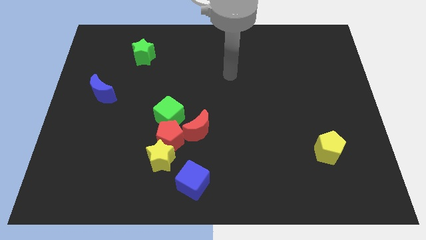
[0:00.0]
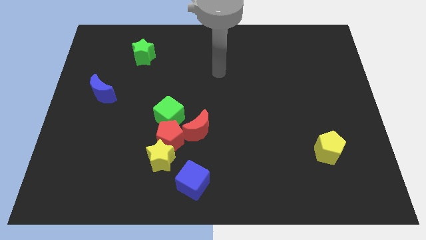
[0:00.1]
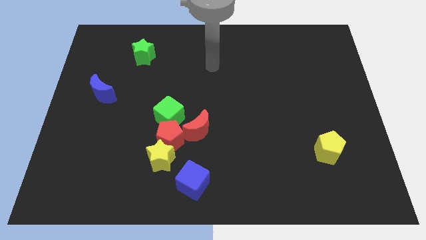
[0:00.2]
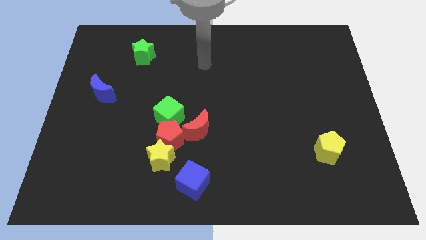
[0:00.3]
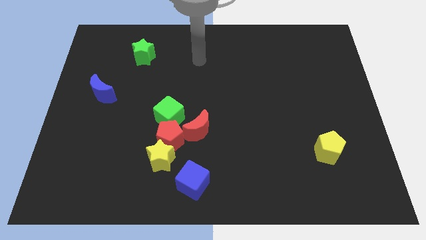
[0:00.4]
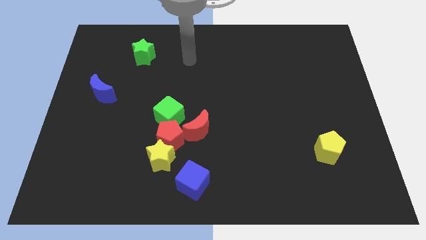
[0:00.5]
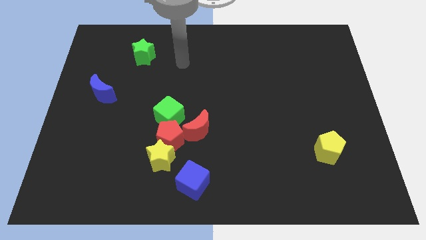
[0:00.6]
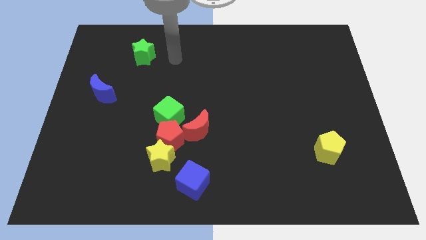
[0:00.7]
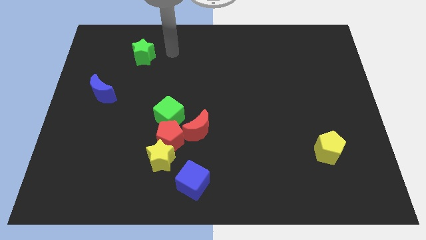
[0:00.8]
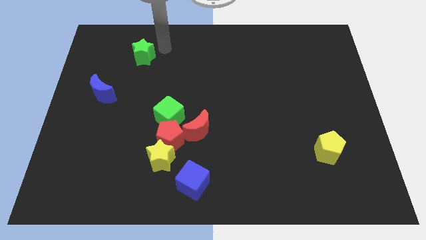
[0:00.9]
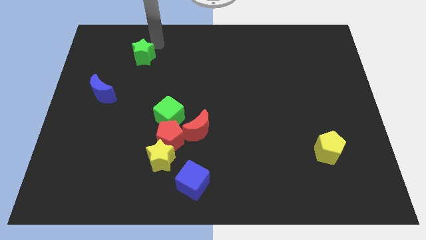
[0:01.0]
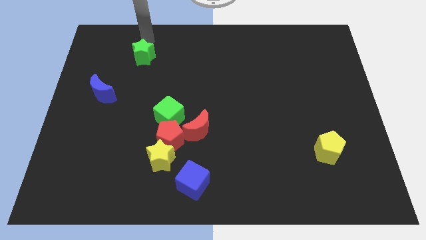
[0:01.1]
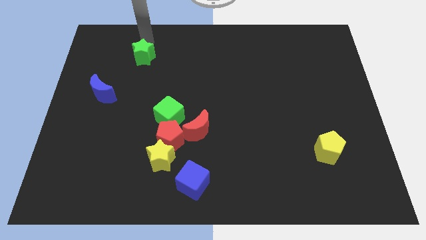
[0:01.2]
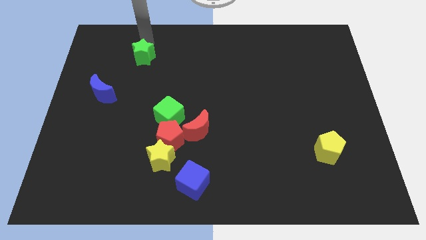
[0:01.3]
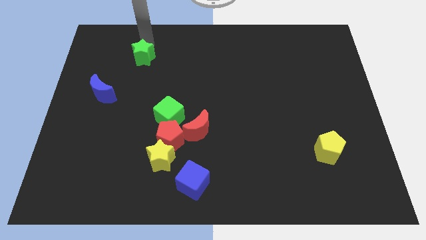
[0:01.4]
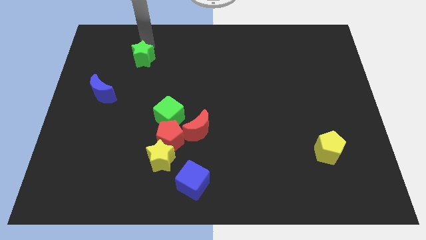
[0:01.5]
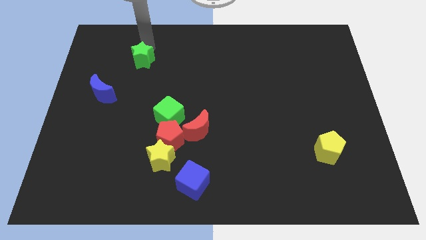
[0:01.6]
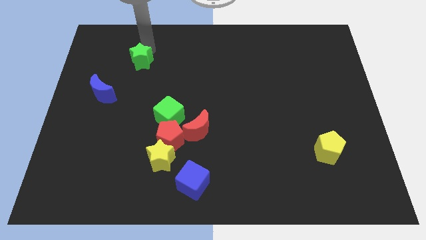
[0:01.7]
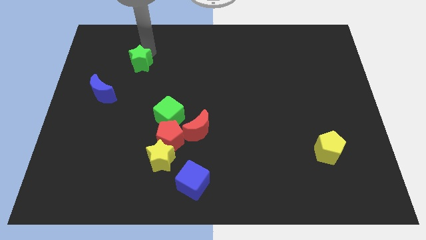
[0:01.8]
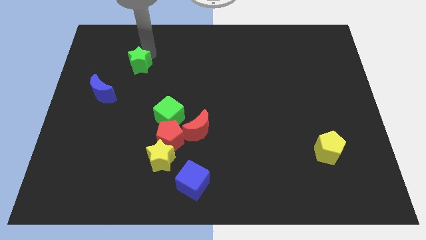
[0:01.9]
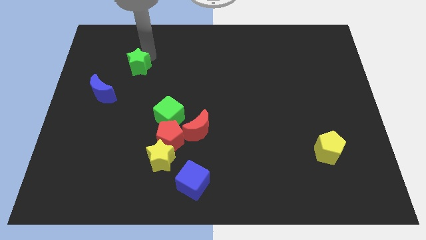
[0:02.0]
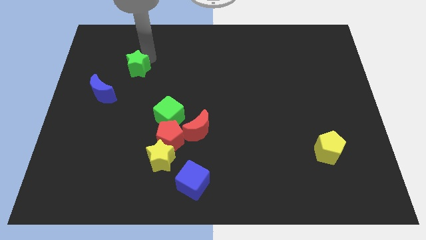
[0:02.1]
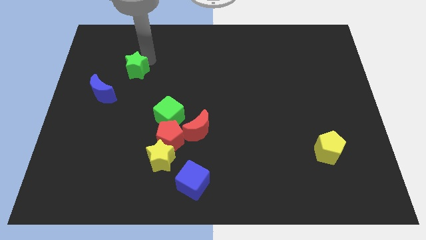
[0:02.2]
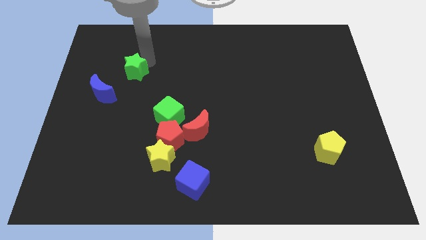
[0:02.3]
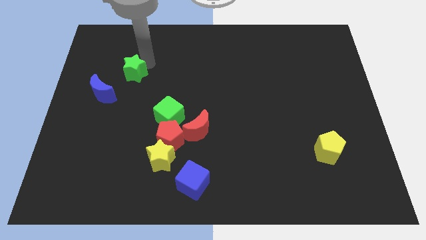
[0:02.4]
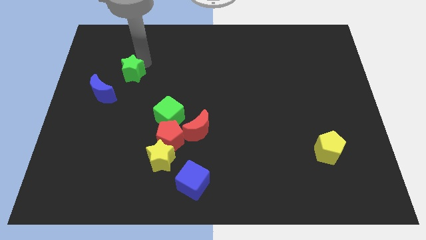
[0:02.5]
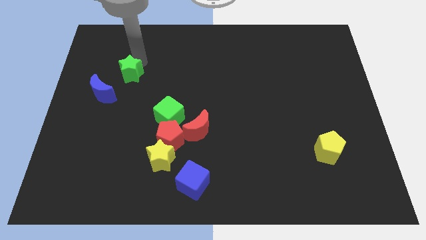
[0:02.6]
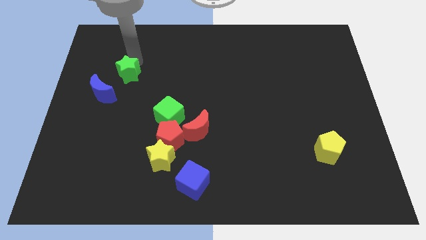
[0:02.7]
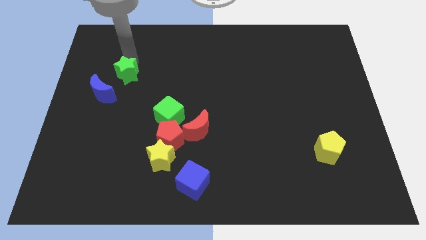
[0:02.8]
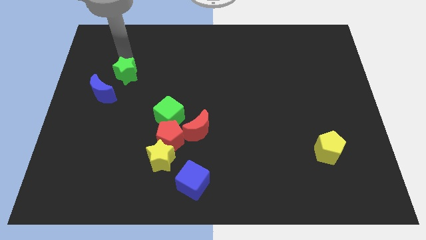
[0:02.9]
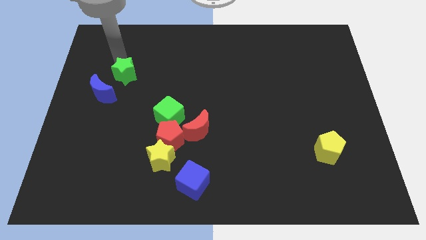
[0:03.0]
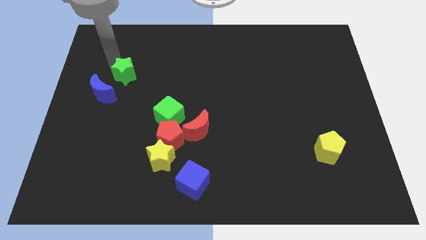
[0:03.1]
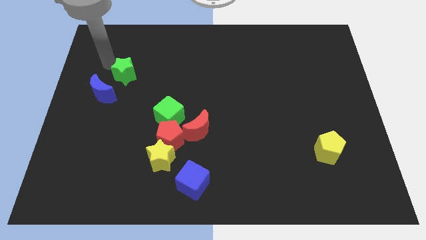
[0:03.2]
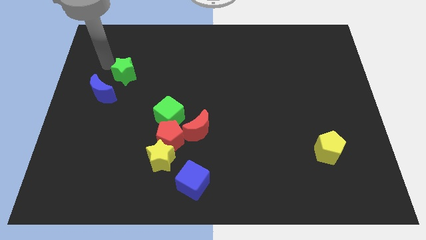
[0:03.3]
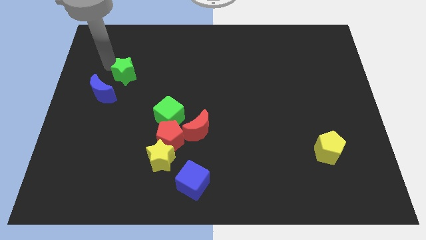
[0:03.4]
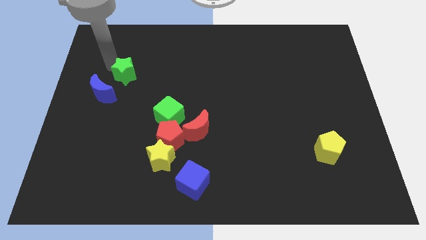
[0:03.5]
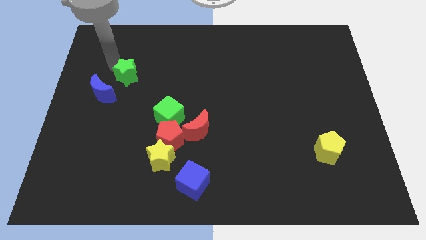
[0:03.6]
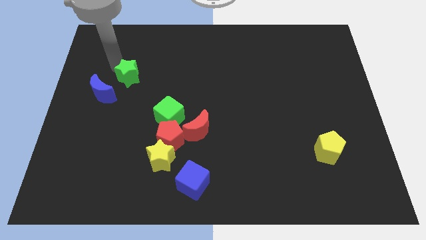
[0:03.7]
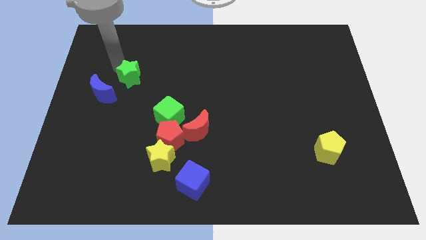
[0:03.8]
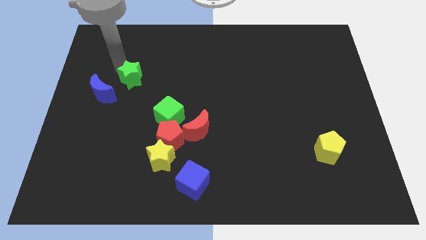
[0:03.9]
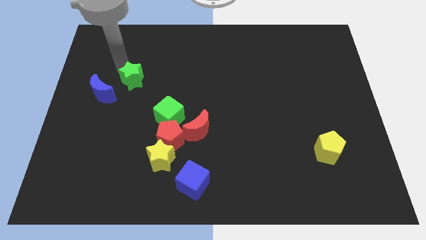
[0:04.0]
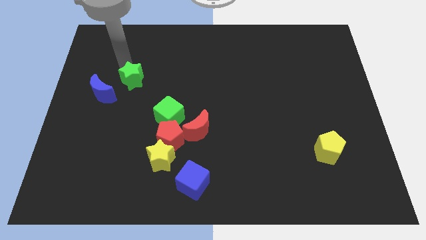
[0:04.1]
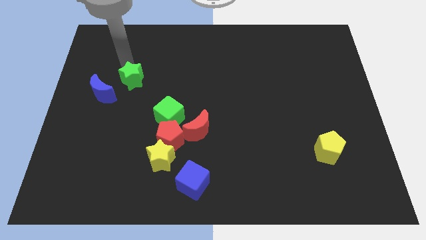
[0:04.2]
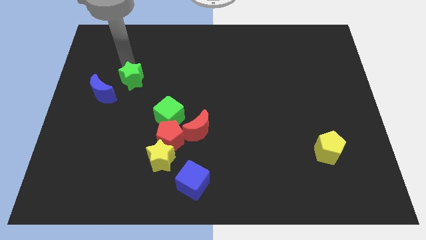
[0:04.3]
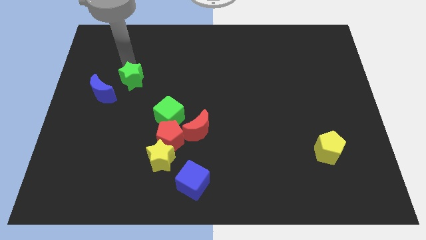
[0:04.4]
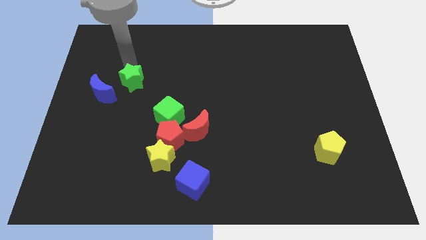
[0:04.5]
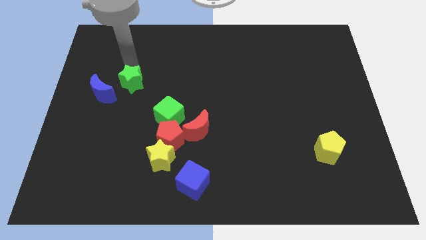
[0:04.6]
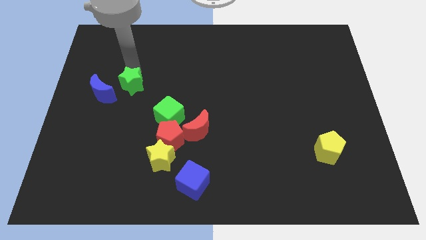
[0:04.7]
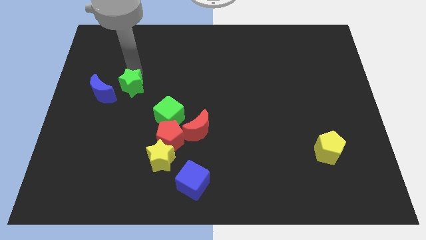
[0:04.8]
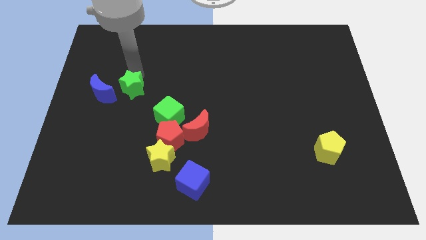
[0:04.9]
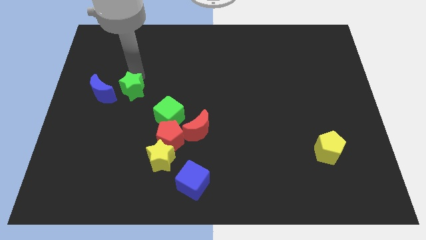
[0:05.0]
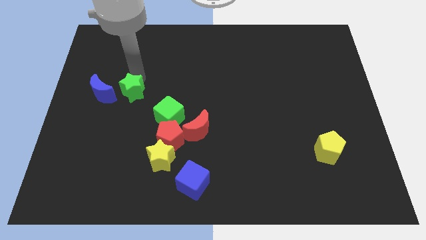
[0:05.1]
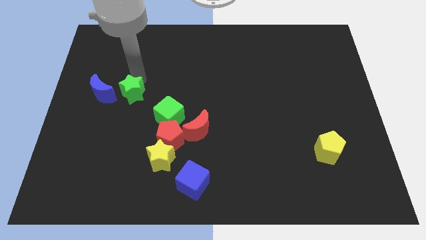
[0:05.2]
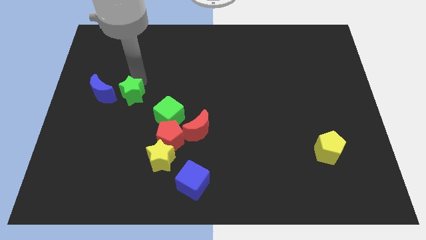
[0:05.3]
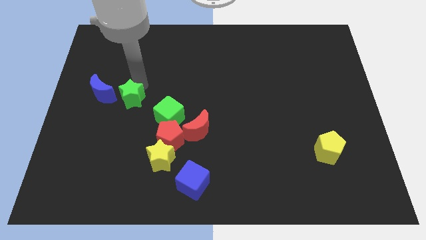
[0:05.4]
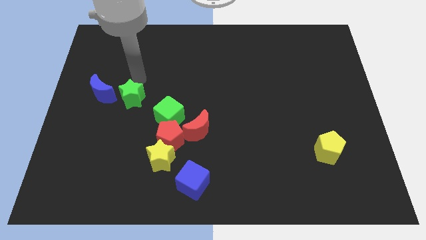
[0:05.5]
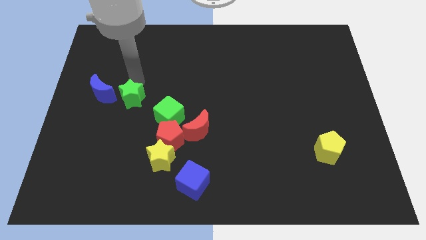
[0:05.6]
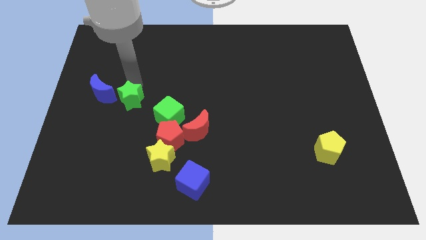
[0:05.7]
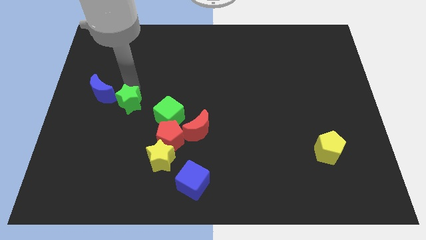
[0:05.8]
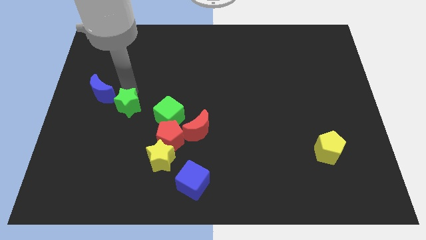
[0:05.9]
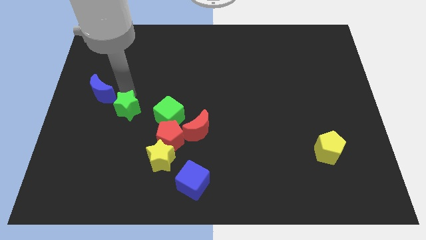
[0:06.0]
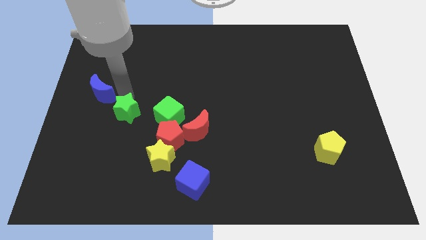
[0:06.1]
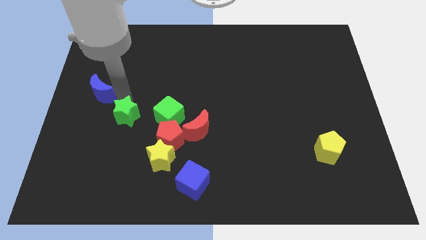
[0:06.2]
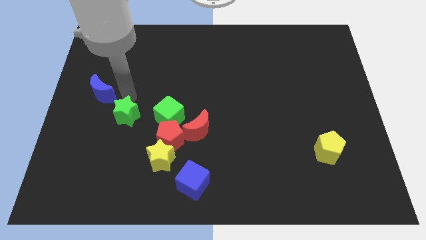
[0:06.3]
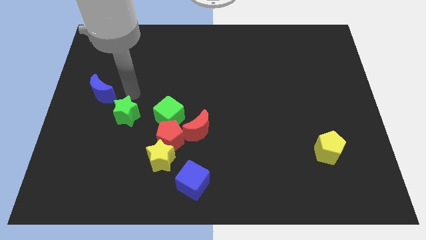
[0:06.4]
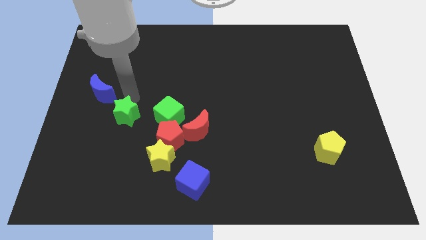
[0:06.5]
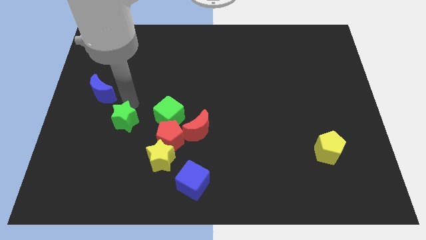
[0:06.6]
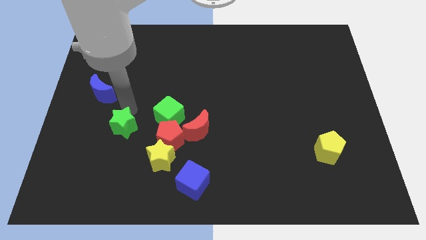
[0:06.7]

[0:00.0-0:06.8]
slide the green star to the left of the red pentagon

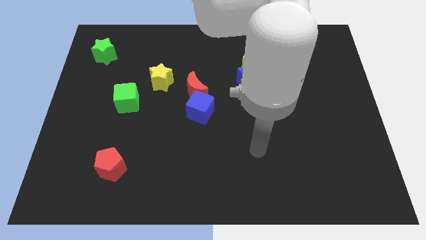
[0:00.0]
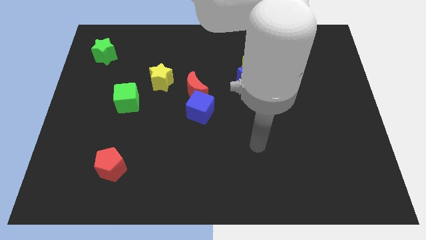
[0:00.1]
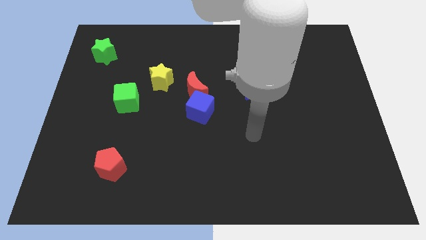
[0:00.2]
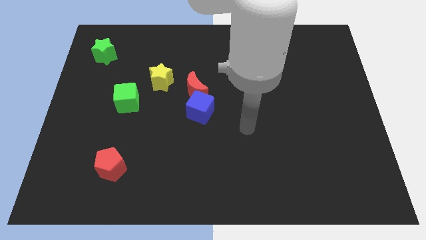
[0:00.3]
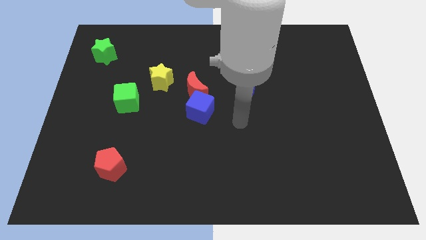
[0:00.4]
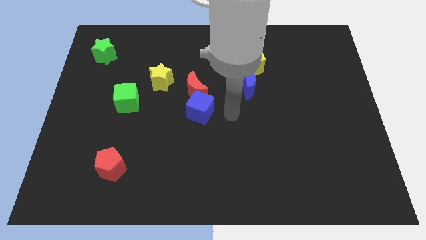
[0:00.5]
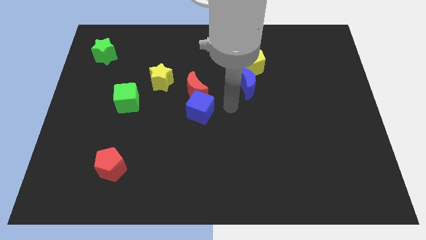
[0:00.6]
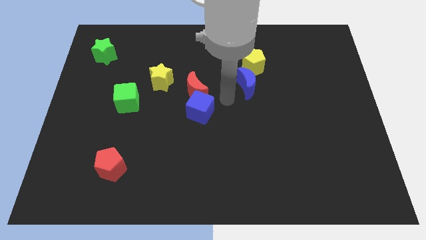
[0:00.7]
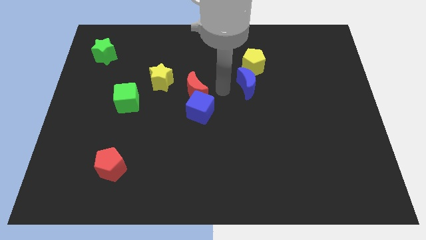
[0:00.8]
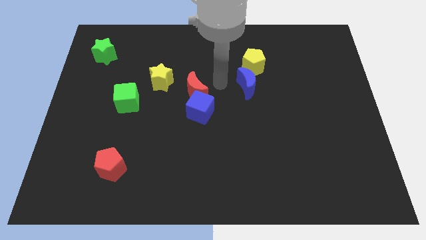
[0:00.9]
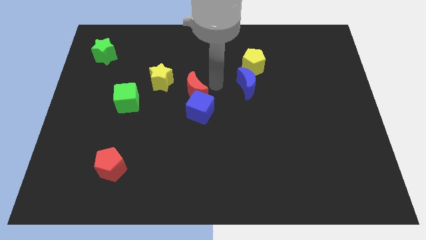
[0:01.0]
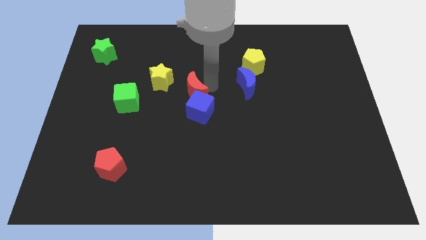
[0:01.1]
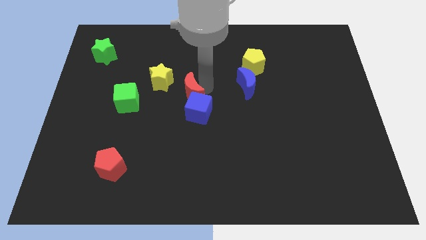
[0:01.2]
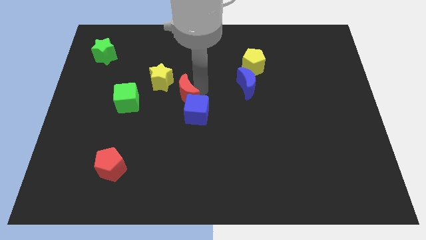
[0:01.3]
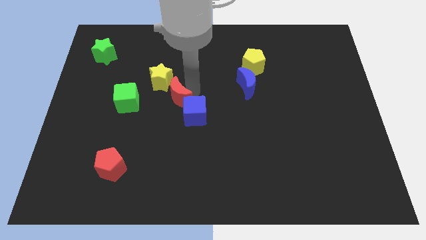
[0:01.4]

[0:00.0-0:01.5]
put the red moon to the bottom of the yellow star

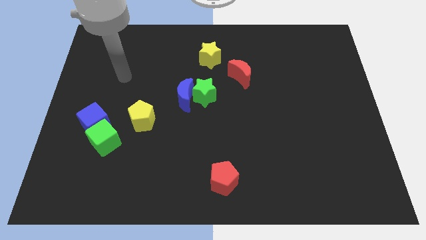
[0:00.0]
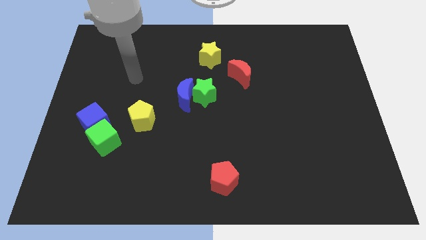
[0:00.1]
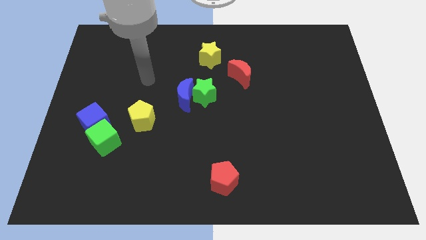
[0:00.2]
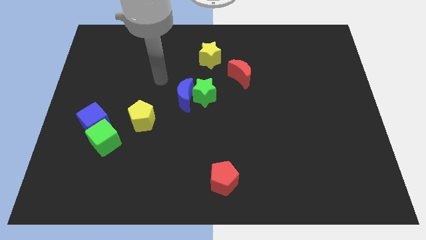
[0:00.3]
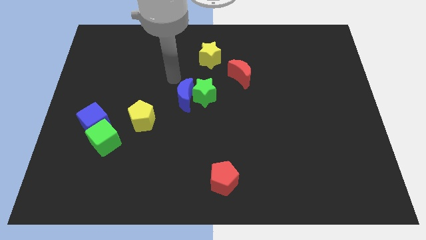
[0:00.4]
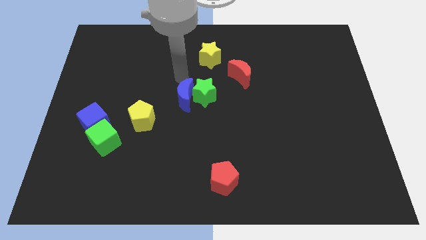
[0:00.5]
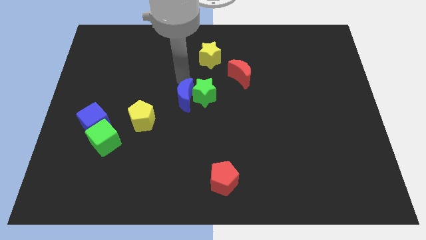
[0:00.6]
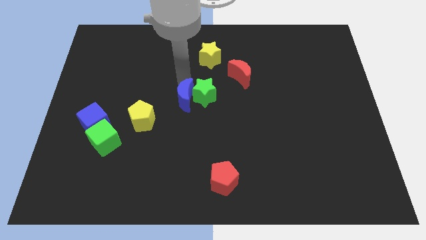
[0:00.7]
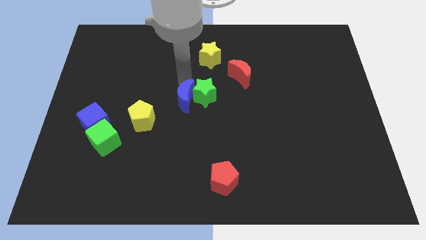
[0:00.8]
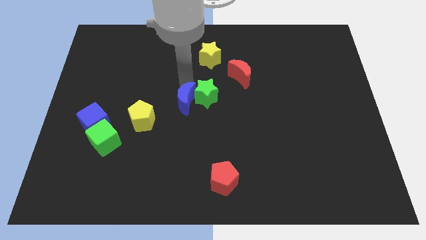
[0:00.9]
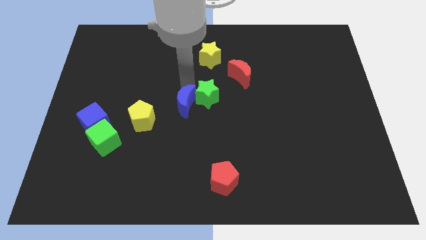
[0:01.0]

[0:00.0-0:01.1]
move the blue moon right of the yellow pentagon
